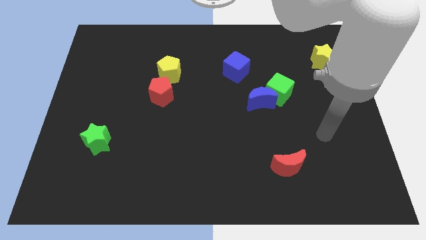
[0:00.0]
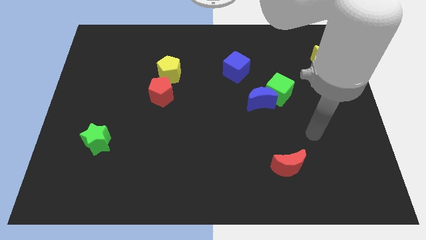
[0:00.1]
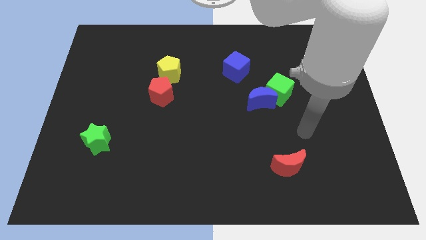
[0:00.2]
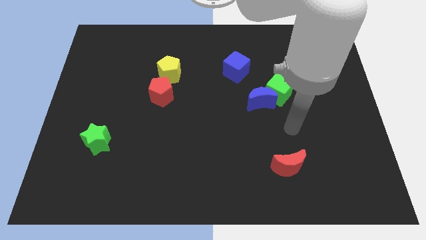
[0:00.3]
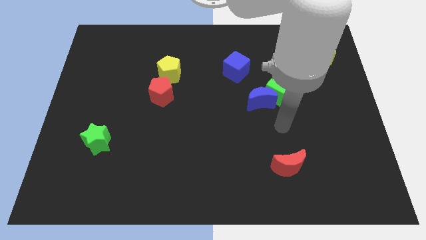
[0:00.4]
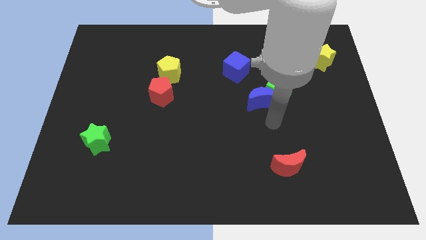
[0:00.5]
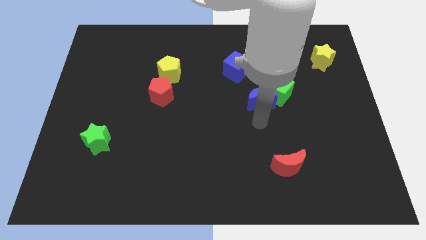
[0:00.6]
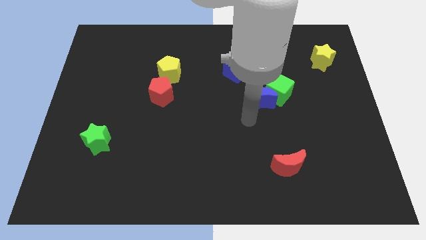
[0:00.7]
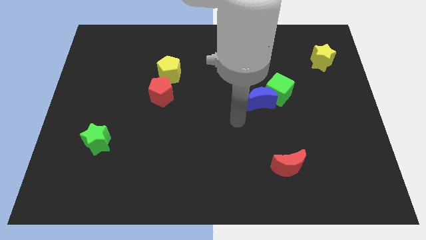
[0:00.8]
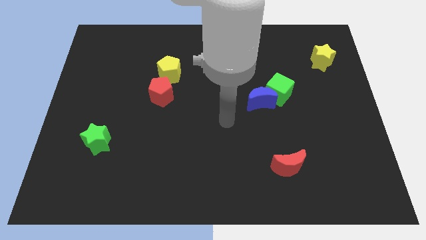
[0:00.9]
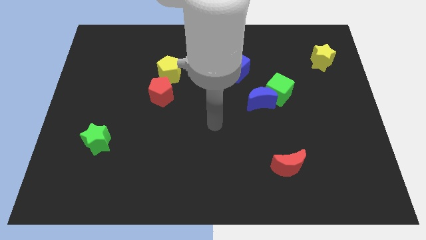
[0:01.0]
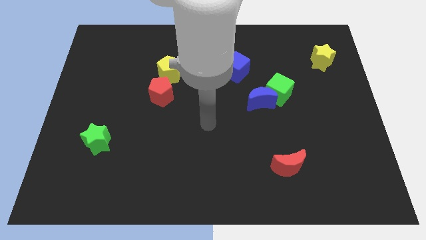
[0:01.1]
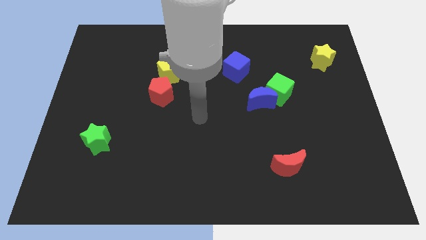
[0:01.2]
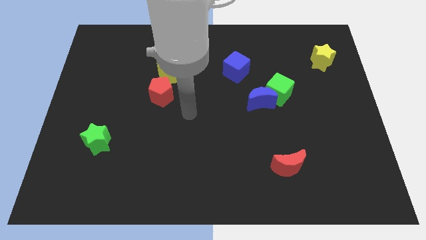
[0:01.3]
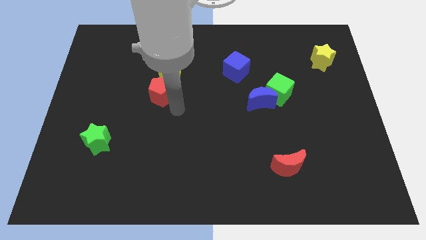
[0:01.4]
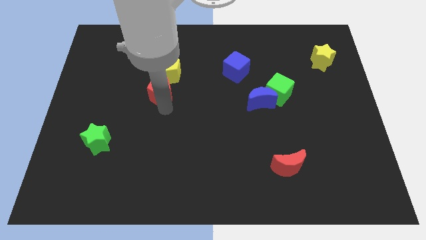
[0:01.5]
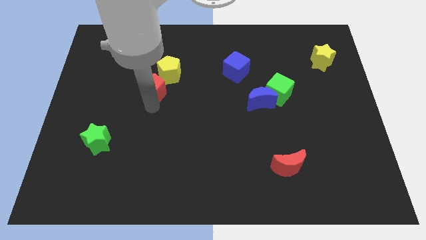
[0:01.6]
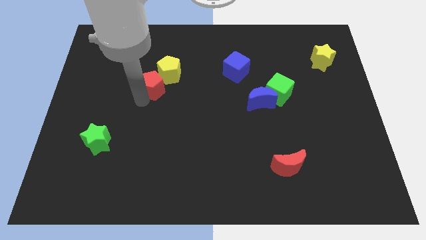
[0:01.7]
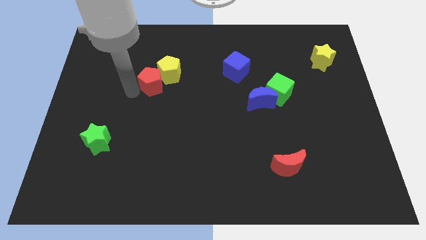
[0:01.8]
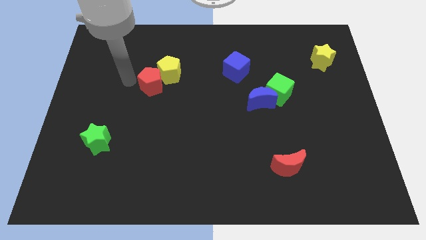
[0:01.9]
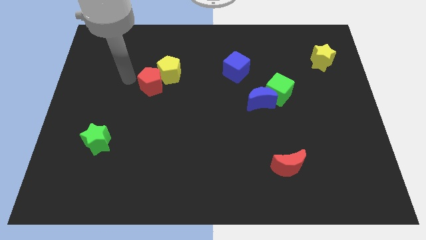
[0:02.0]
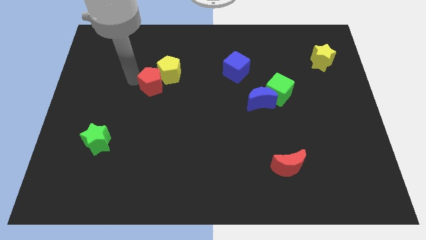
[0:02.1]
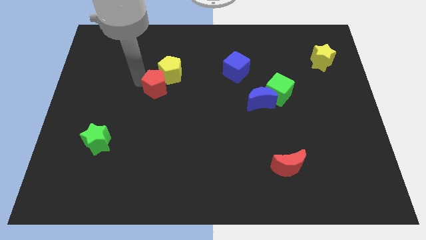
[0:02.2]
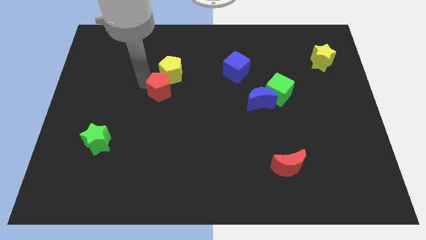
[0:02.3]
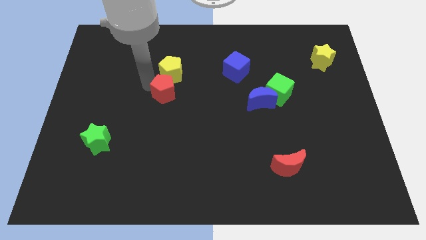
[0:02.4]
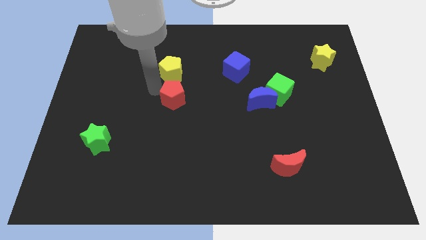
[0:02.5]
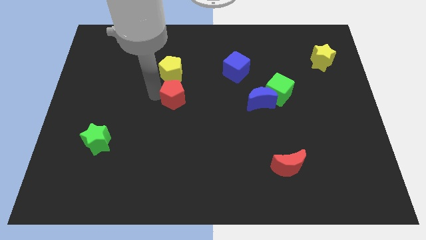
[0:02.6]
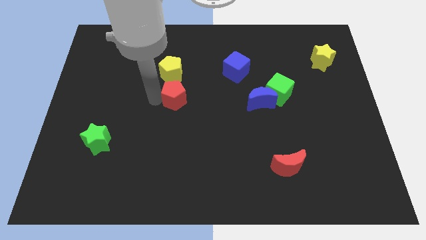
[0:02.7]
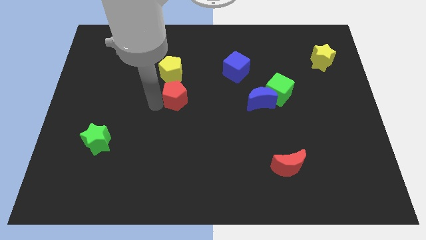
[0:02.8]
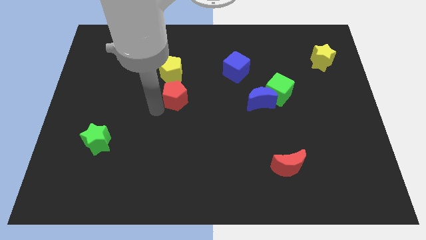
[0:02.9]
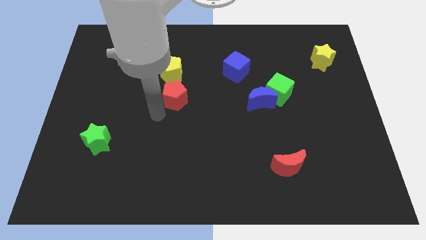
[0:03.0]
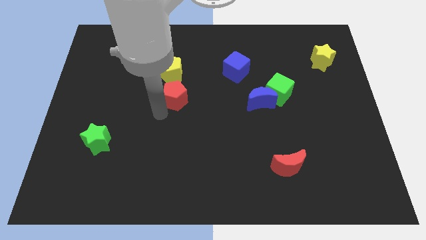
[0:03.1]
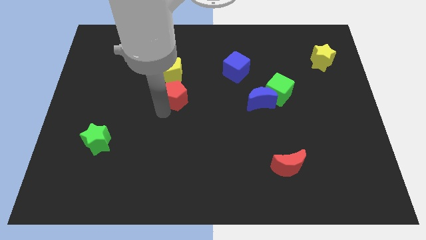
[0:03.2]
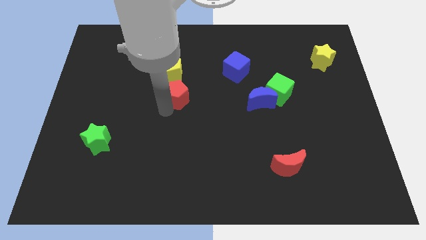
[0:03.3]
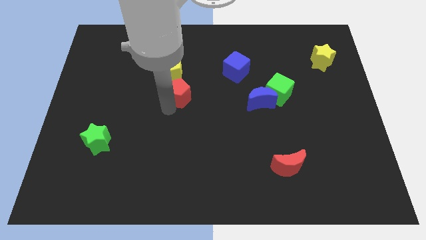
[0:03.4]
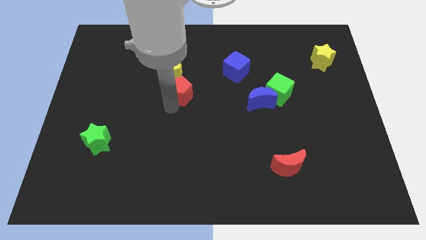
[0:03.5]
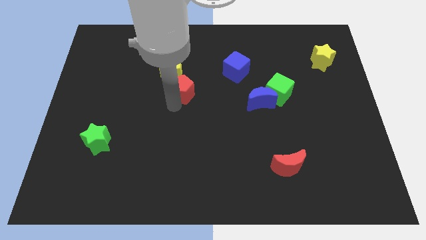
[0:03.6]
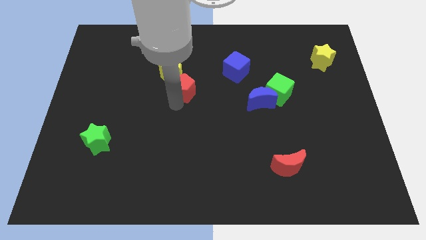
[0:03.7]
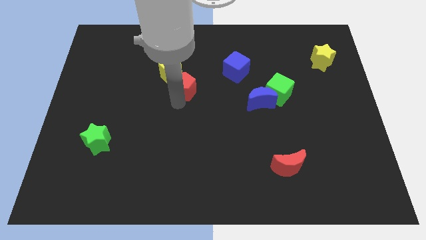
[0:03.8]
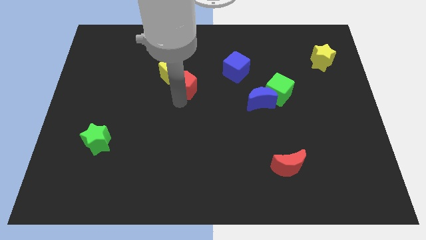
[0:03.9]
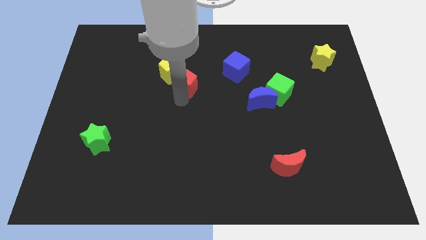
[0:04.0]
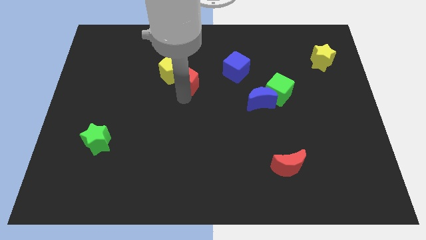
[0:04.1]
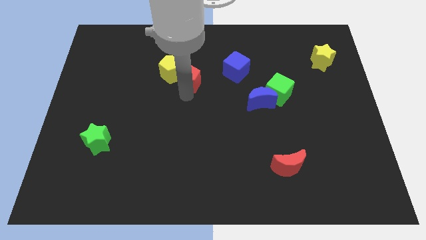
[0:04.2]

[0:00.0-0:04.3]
slide the red pentagon up and then to the right a little

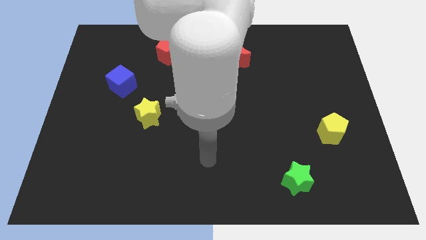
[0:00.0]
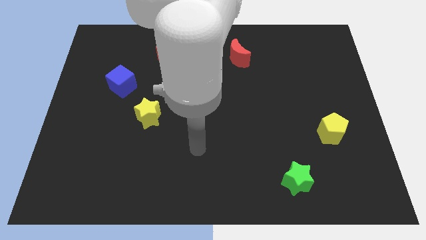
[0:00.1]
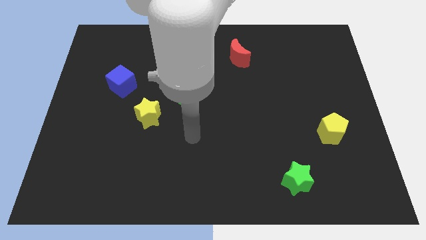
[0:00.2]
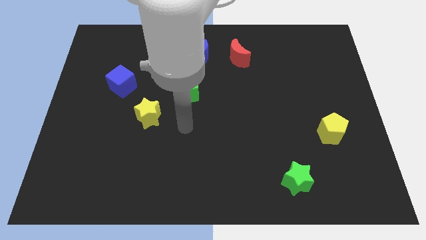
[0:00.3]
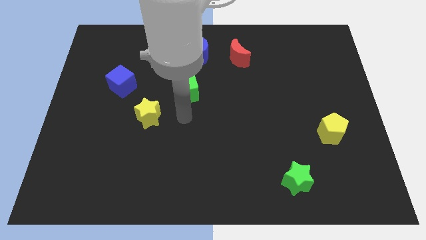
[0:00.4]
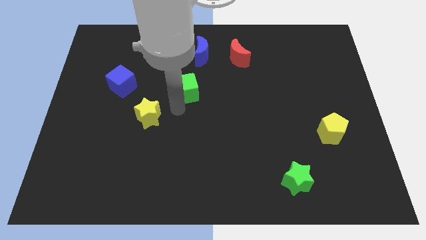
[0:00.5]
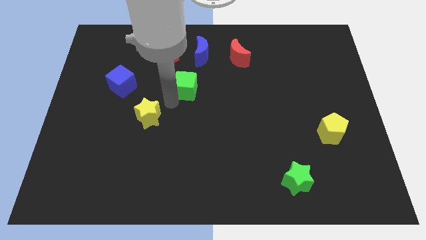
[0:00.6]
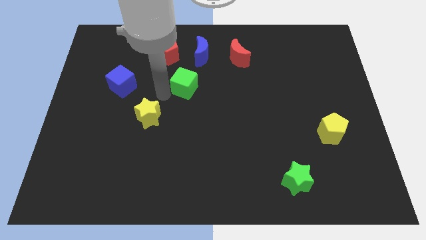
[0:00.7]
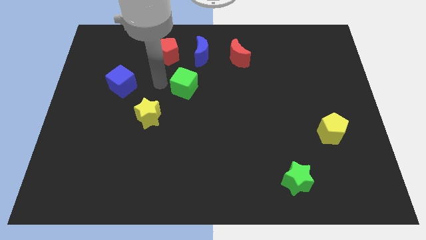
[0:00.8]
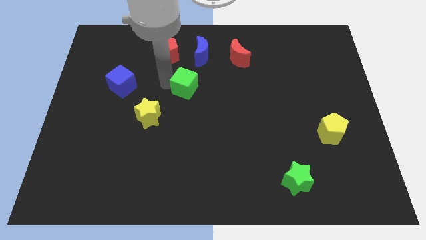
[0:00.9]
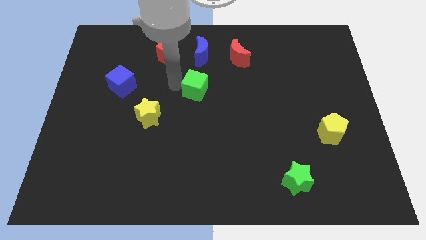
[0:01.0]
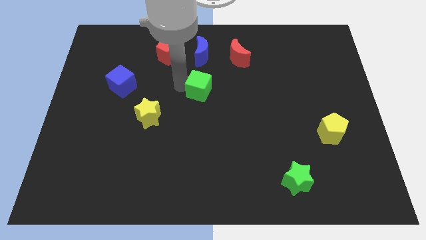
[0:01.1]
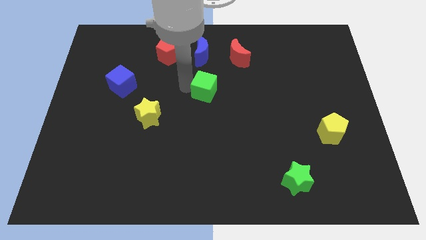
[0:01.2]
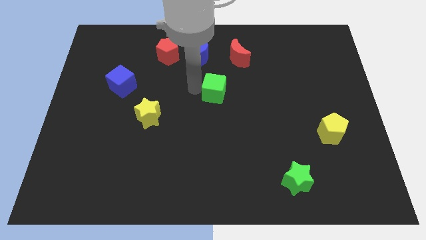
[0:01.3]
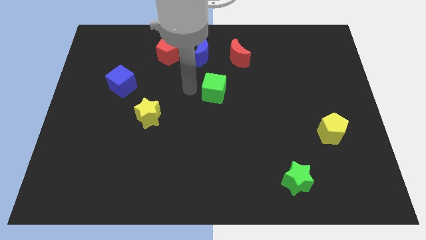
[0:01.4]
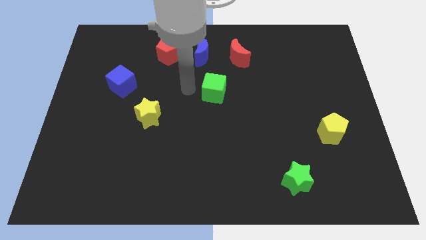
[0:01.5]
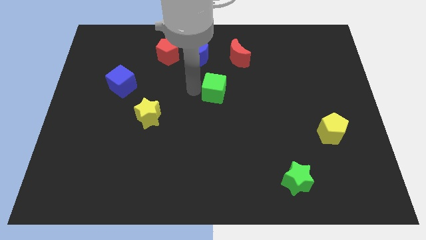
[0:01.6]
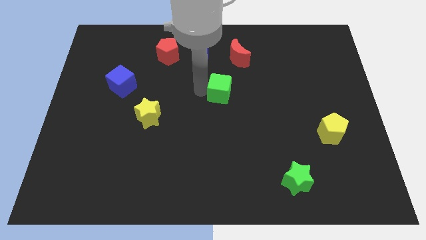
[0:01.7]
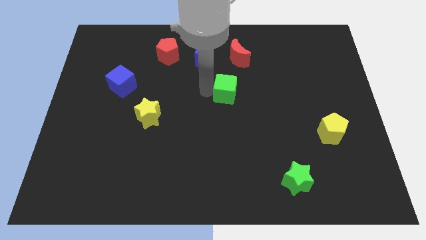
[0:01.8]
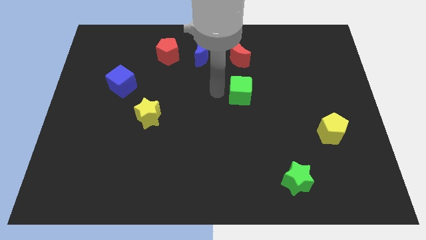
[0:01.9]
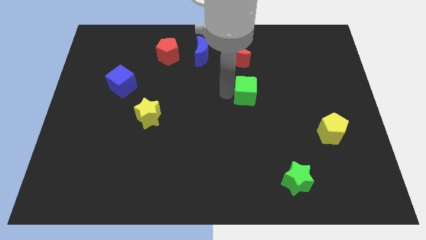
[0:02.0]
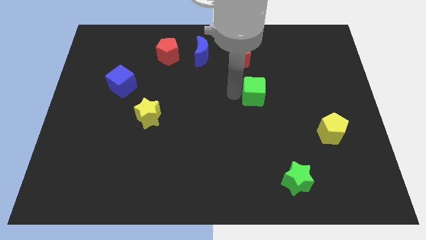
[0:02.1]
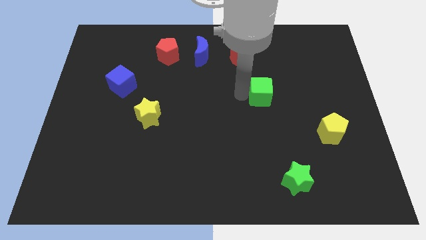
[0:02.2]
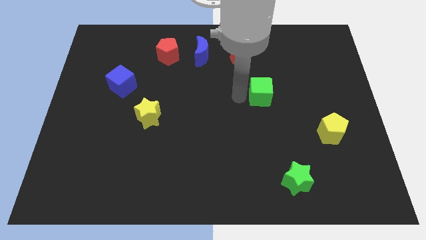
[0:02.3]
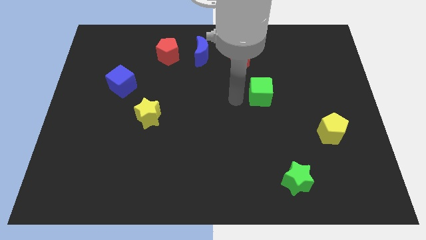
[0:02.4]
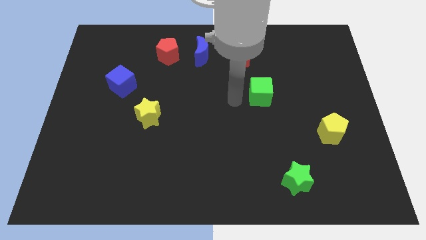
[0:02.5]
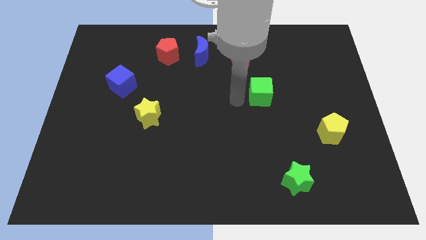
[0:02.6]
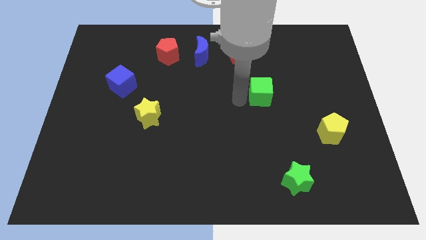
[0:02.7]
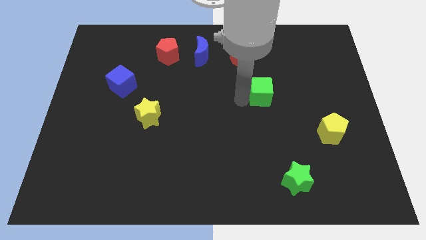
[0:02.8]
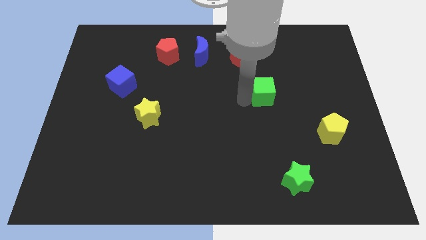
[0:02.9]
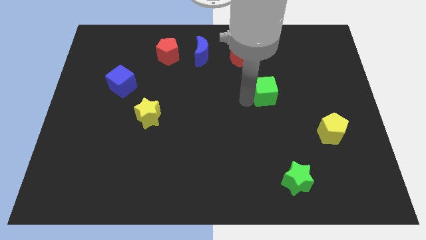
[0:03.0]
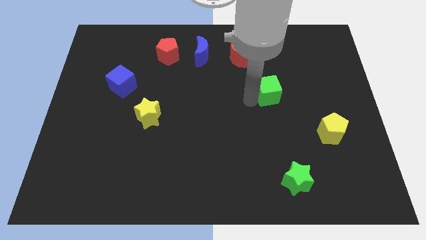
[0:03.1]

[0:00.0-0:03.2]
move the green cube right

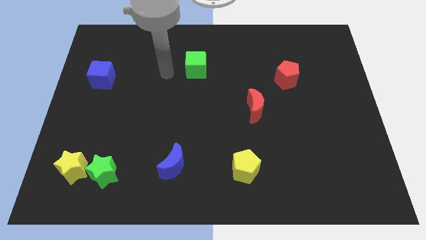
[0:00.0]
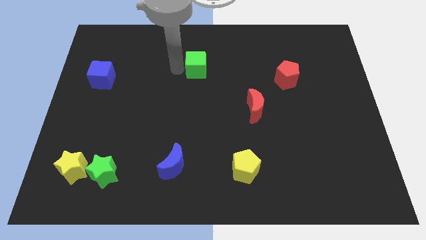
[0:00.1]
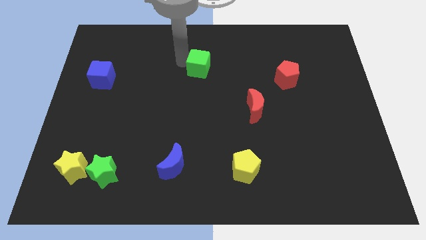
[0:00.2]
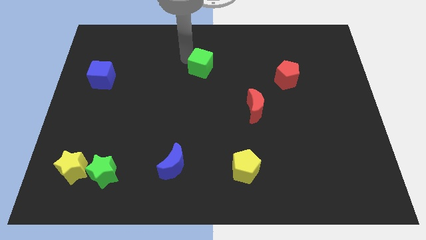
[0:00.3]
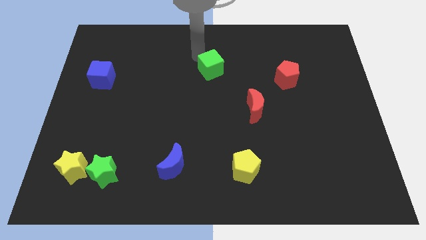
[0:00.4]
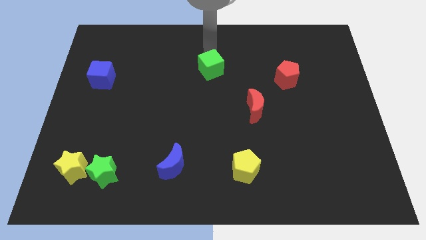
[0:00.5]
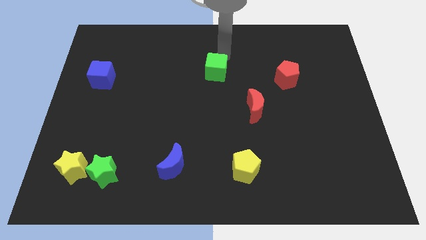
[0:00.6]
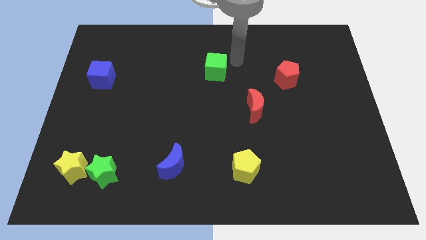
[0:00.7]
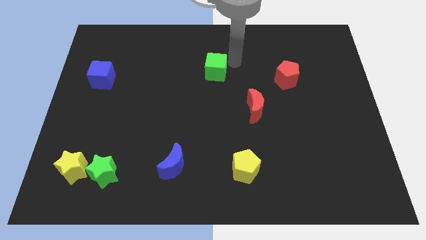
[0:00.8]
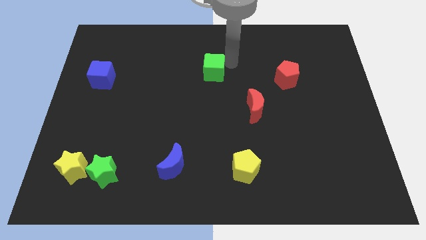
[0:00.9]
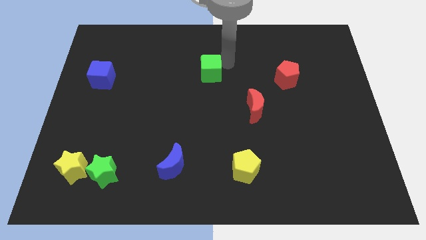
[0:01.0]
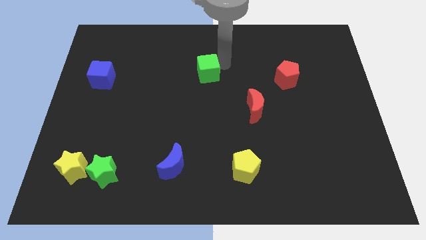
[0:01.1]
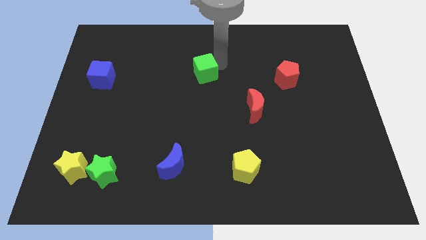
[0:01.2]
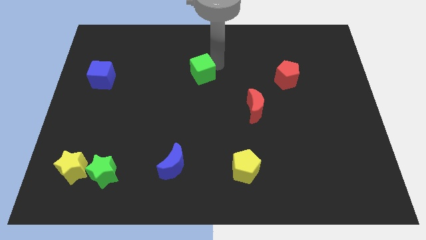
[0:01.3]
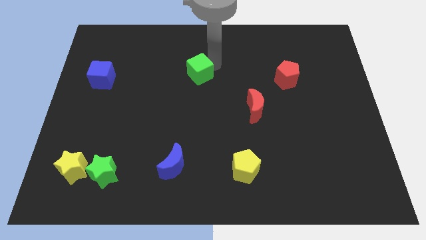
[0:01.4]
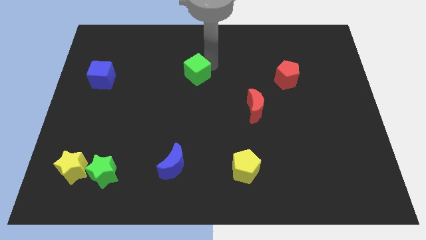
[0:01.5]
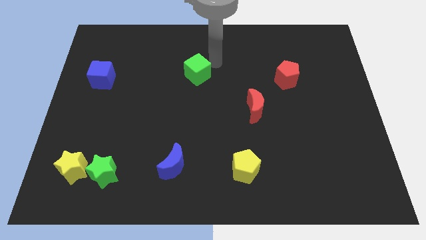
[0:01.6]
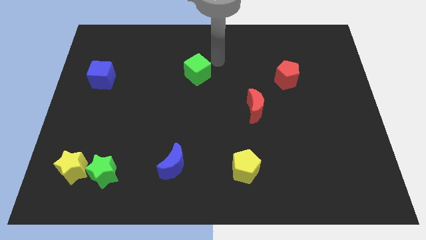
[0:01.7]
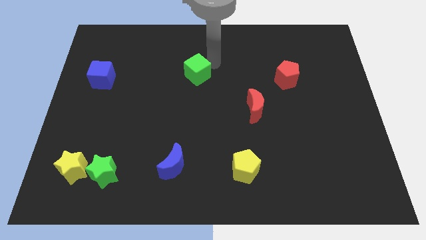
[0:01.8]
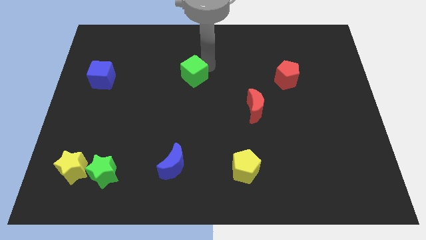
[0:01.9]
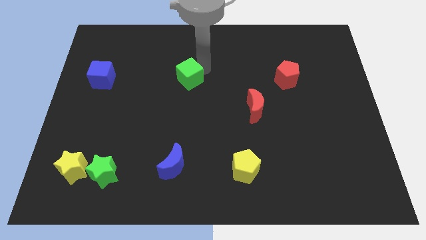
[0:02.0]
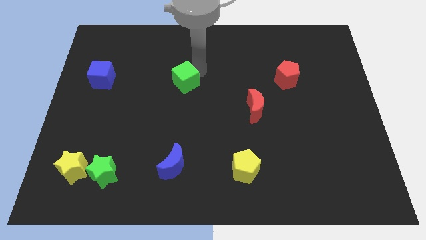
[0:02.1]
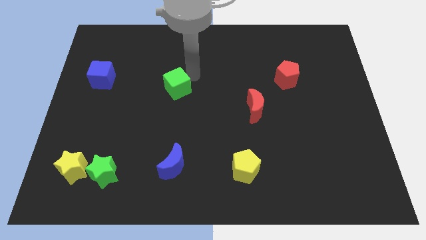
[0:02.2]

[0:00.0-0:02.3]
slide the green cube downwards and left a bit
